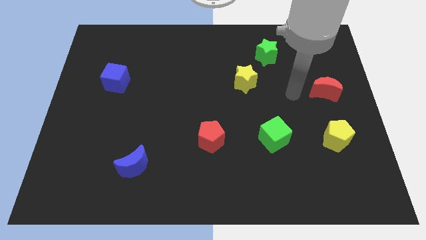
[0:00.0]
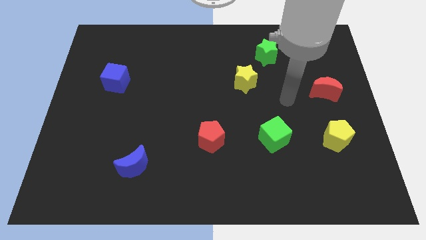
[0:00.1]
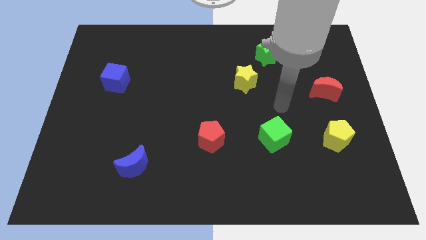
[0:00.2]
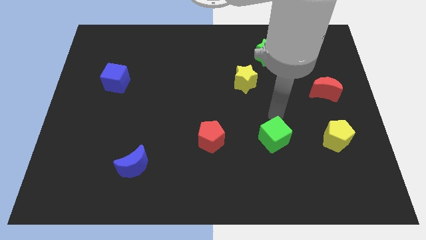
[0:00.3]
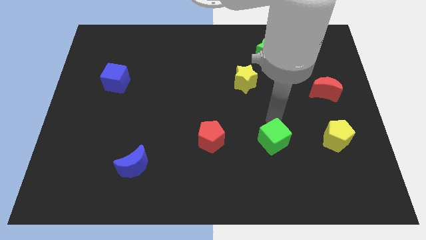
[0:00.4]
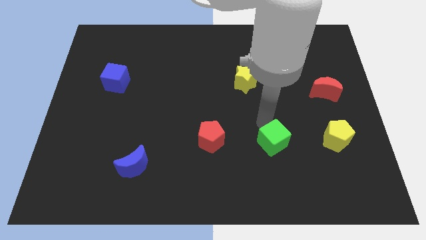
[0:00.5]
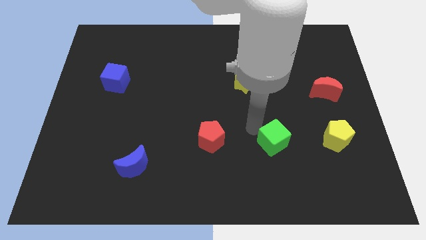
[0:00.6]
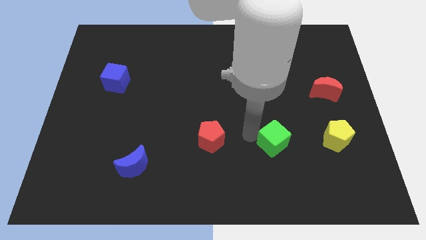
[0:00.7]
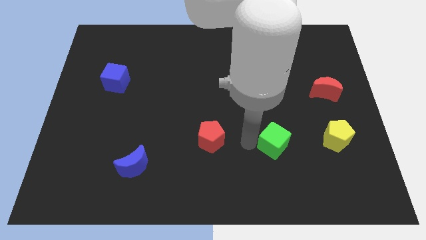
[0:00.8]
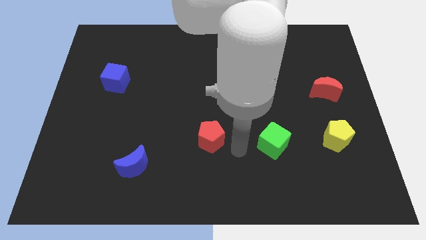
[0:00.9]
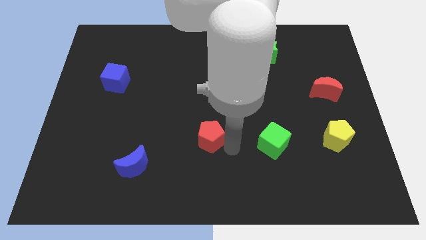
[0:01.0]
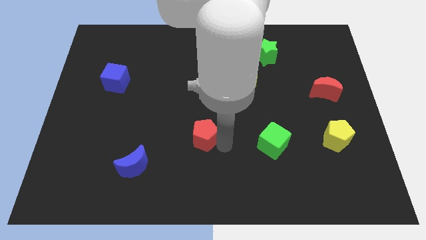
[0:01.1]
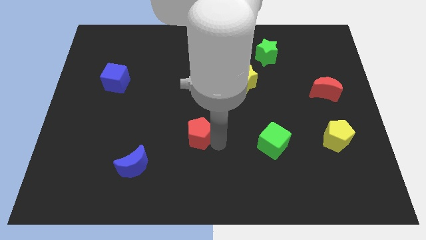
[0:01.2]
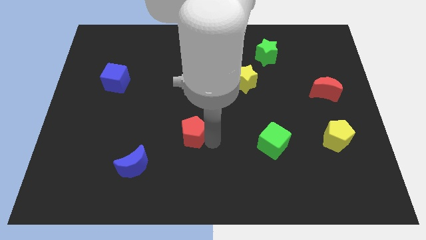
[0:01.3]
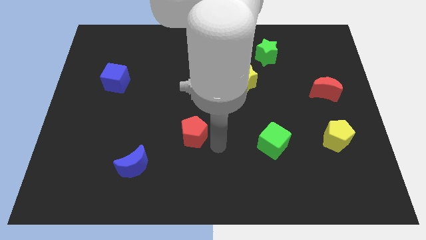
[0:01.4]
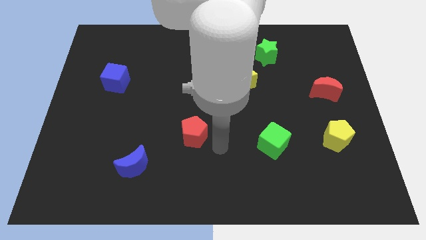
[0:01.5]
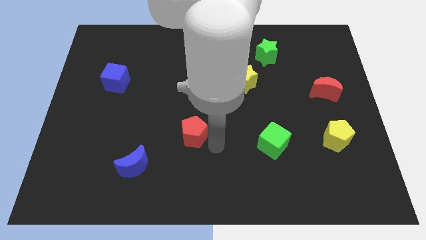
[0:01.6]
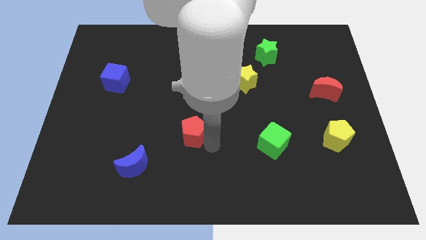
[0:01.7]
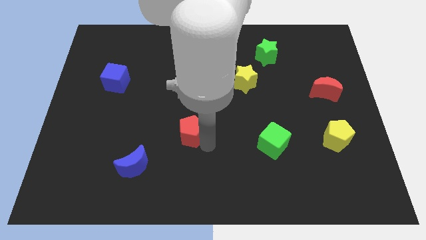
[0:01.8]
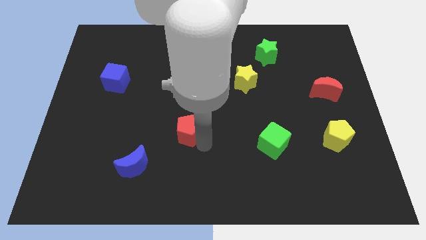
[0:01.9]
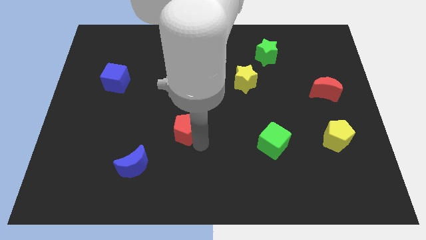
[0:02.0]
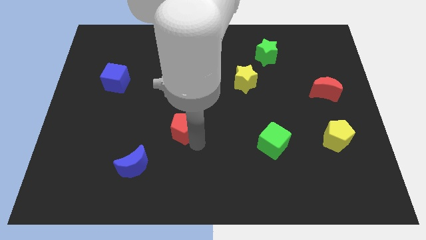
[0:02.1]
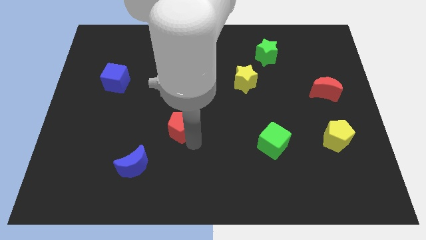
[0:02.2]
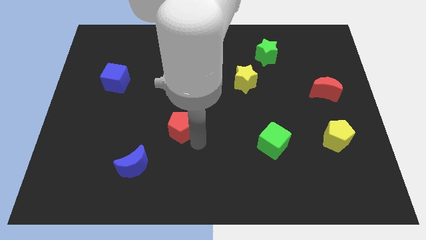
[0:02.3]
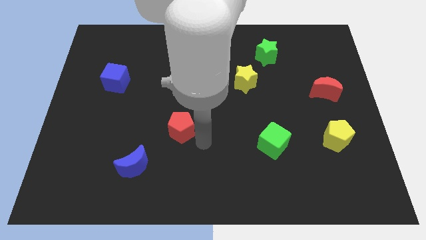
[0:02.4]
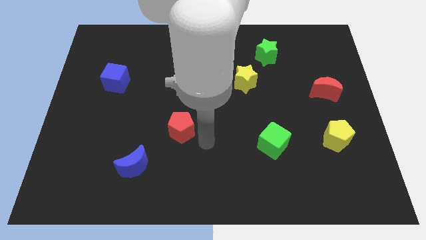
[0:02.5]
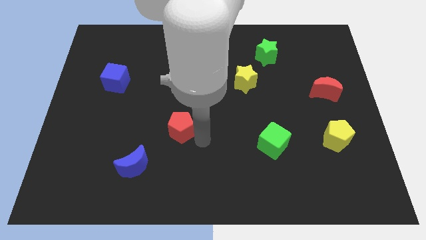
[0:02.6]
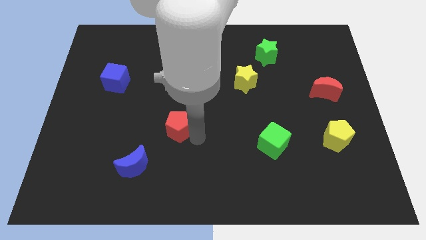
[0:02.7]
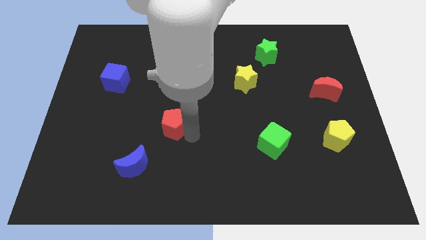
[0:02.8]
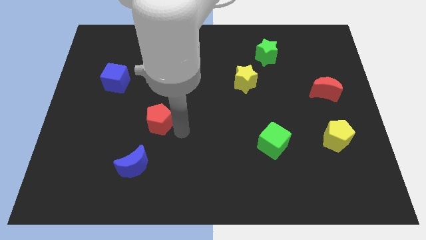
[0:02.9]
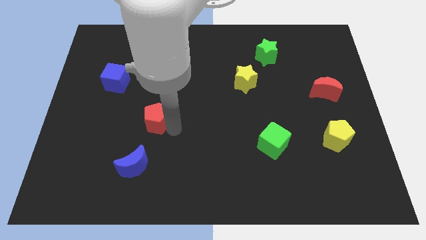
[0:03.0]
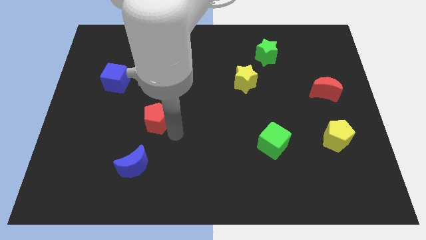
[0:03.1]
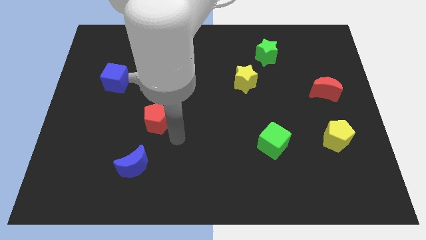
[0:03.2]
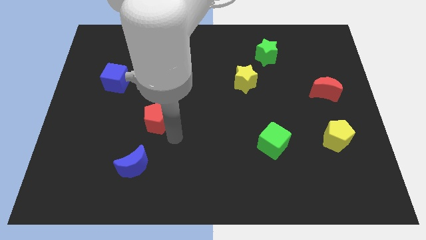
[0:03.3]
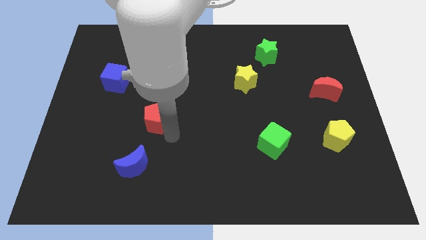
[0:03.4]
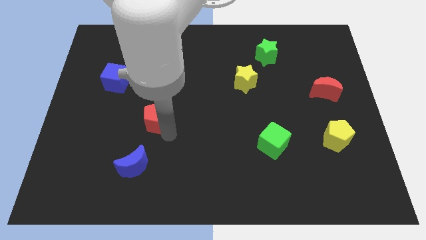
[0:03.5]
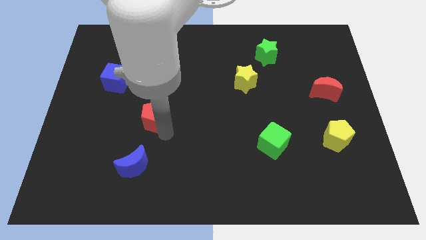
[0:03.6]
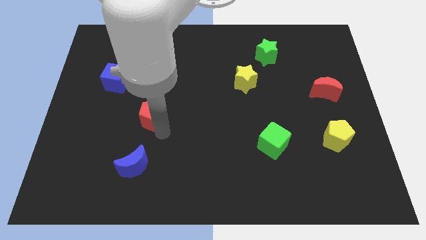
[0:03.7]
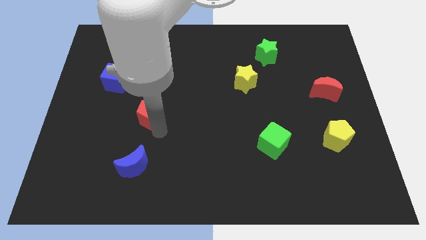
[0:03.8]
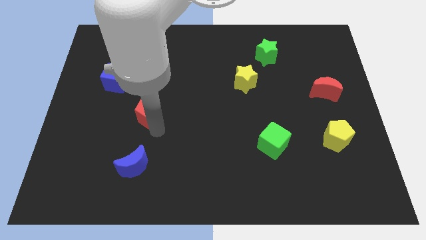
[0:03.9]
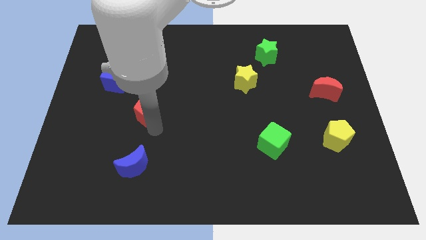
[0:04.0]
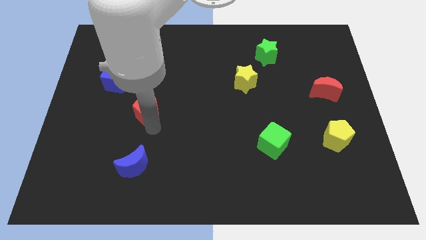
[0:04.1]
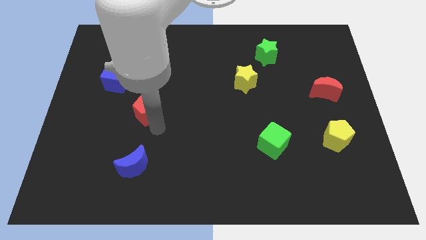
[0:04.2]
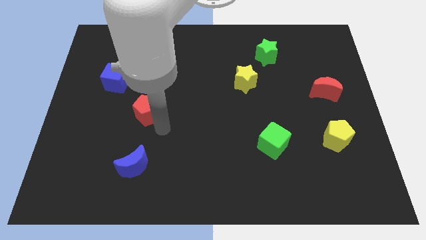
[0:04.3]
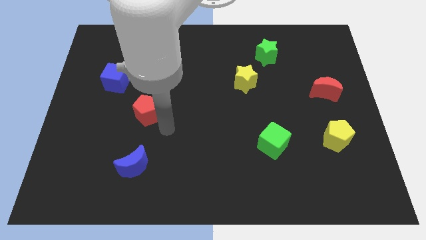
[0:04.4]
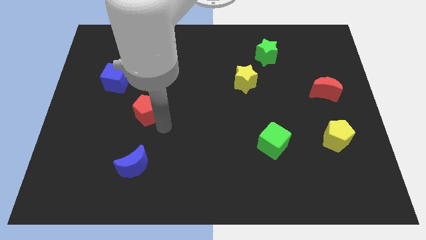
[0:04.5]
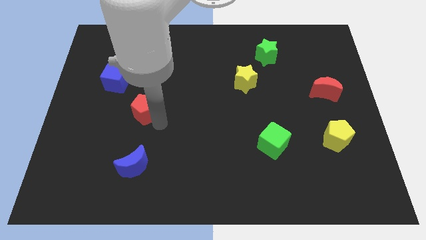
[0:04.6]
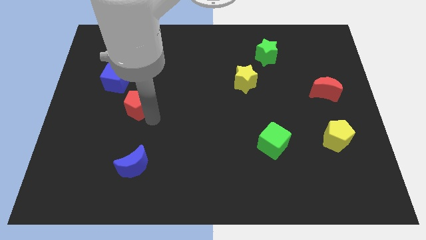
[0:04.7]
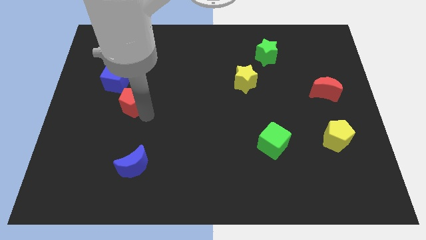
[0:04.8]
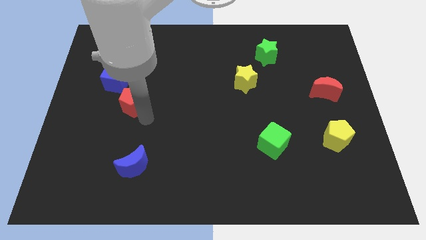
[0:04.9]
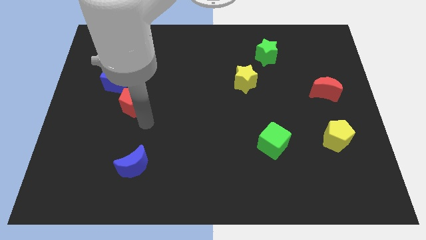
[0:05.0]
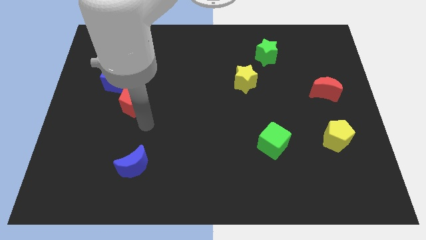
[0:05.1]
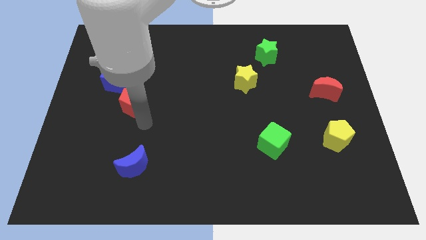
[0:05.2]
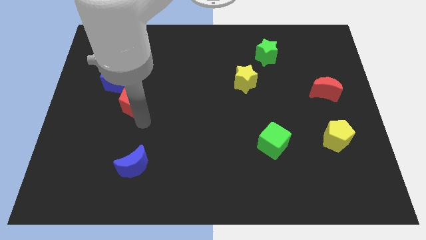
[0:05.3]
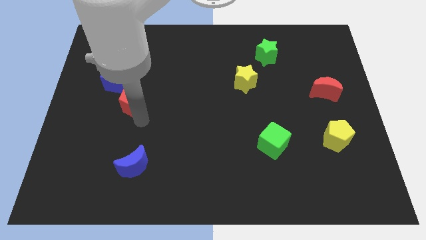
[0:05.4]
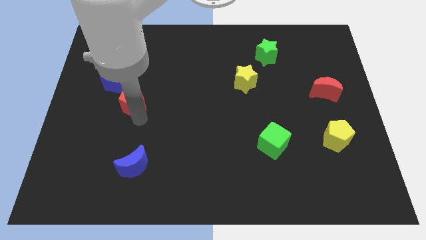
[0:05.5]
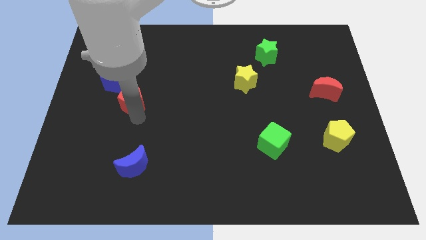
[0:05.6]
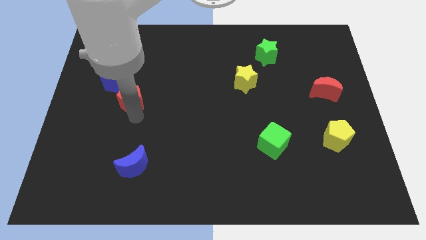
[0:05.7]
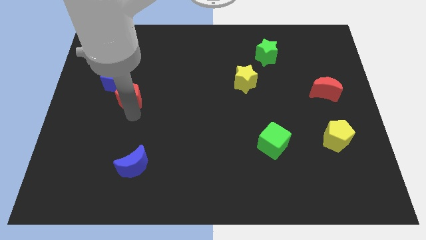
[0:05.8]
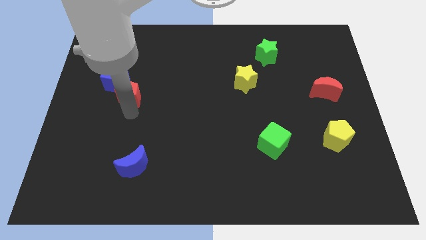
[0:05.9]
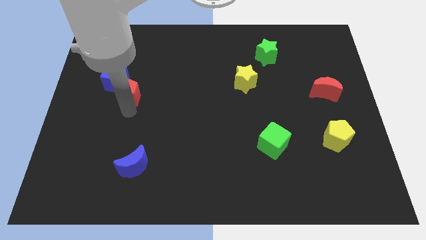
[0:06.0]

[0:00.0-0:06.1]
put the red pentagon to the blue cube

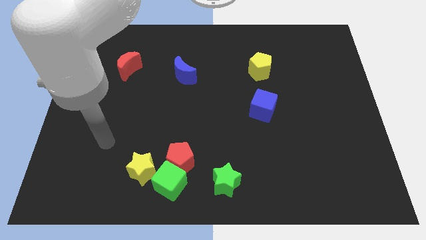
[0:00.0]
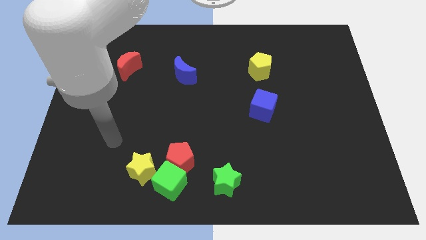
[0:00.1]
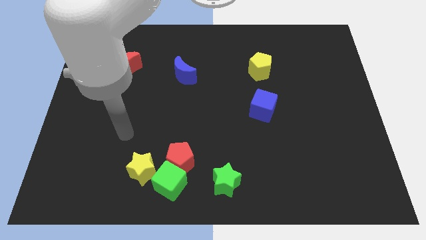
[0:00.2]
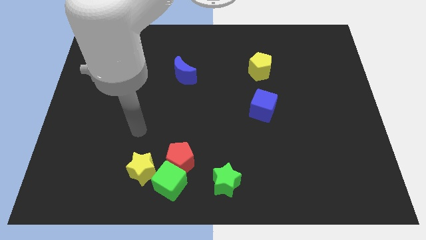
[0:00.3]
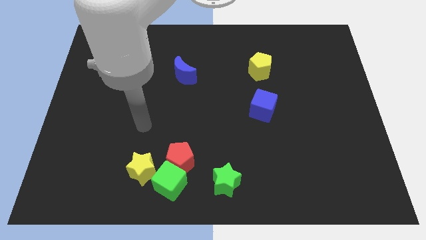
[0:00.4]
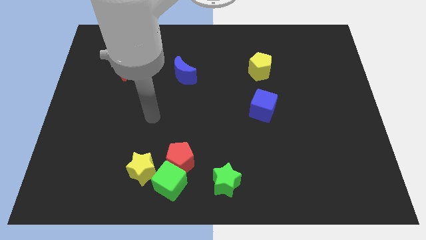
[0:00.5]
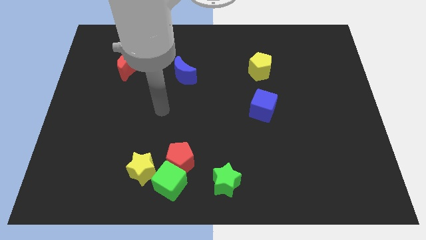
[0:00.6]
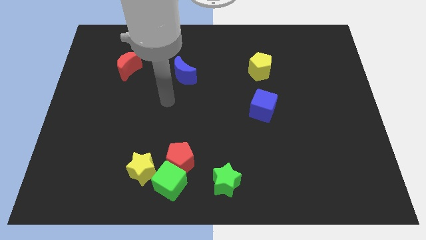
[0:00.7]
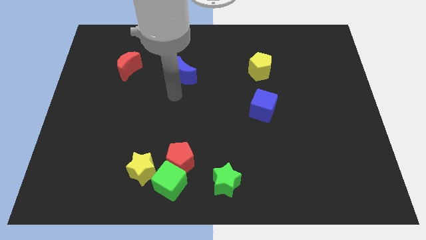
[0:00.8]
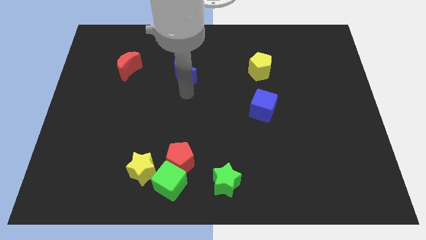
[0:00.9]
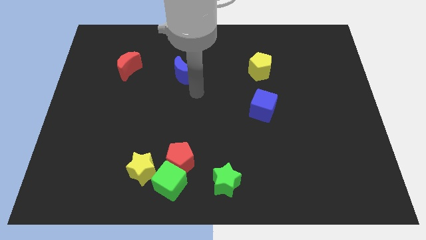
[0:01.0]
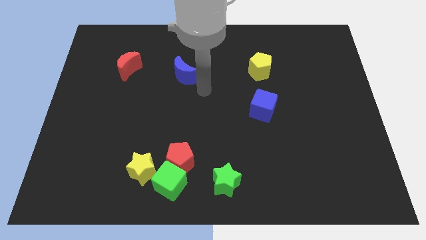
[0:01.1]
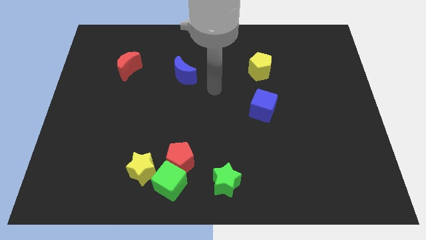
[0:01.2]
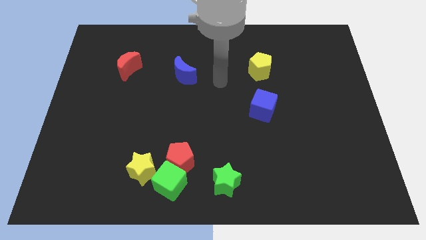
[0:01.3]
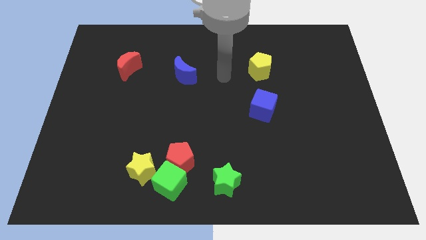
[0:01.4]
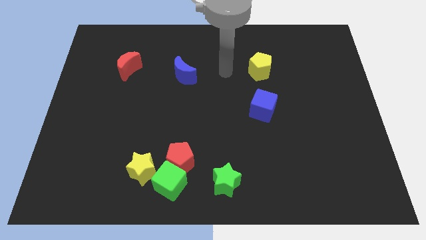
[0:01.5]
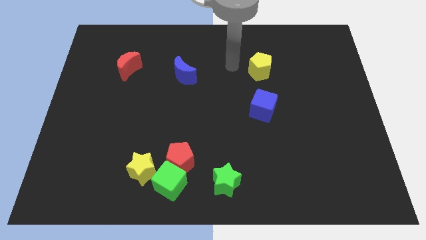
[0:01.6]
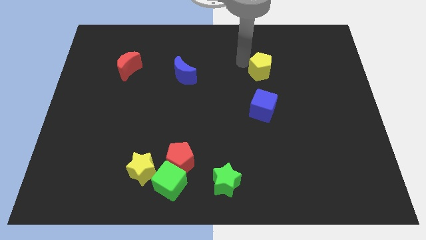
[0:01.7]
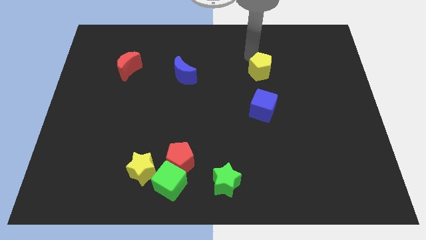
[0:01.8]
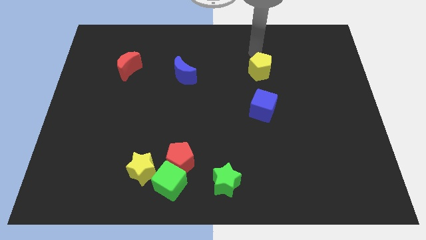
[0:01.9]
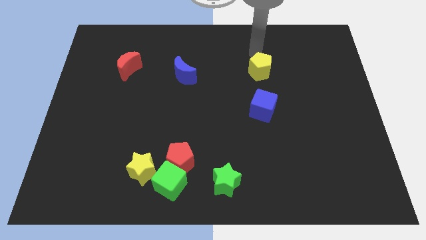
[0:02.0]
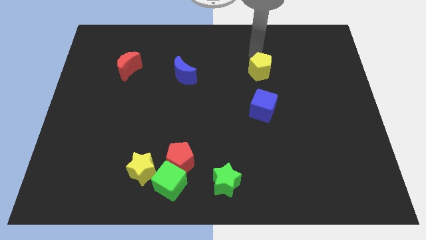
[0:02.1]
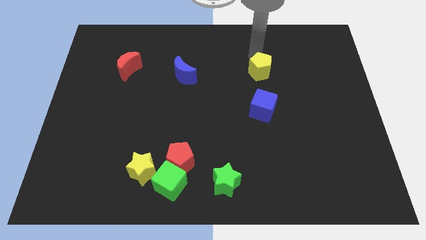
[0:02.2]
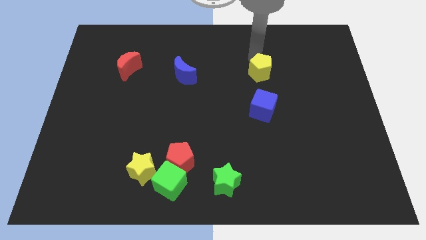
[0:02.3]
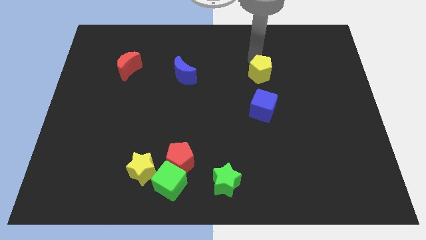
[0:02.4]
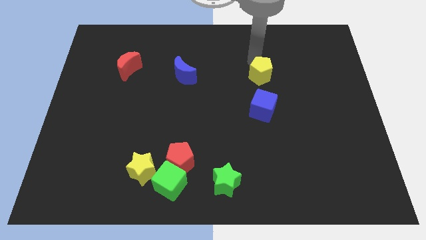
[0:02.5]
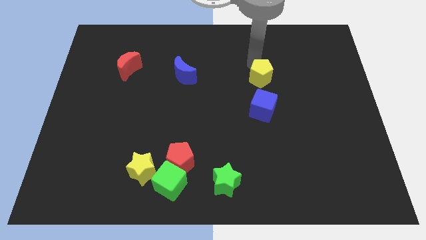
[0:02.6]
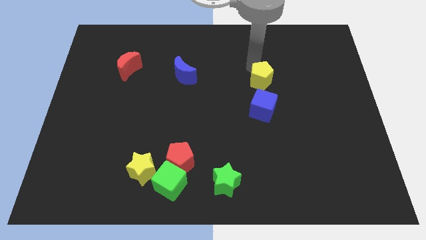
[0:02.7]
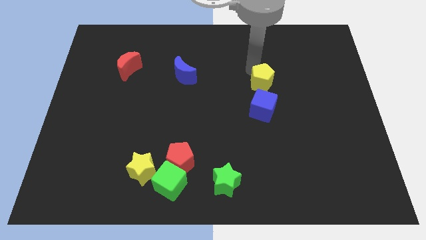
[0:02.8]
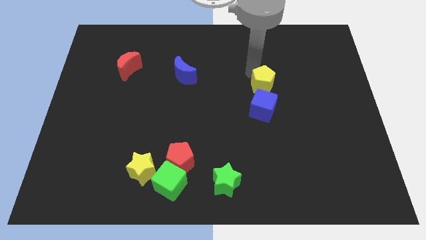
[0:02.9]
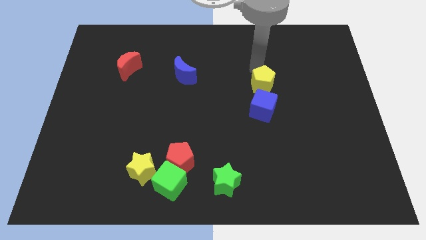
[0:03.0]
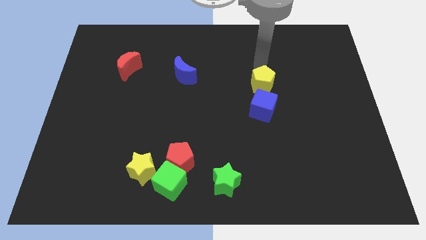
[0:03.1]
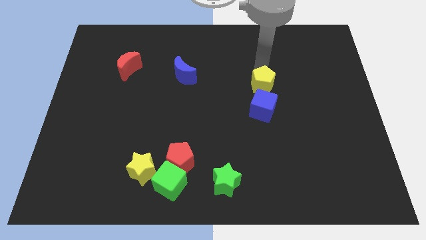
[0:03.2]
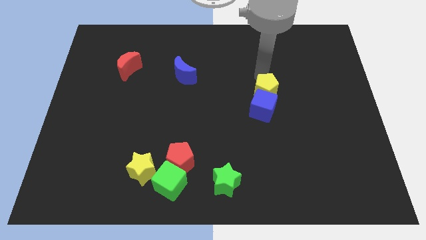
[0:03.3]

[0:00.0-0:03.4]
put the yellow pentagon next to the blue cube
